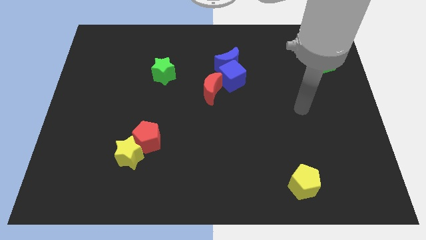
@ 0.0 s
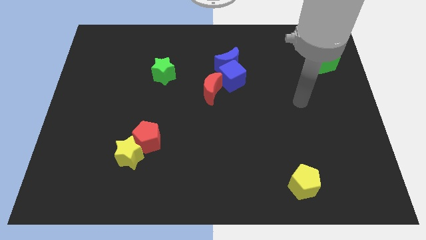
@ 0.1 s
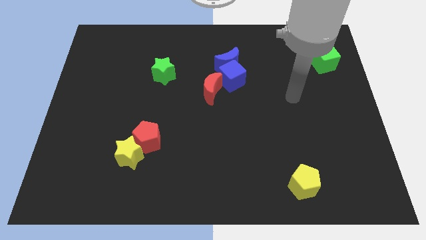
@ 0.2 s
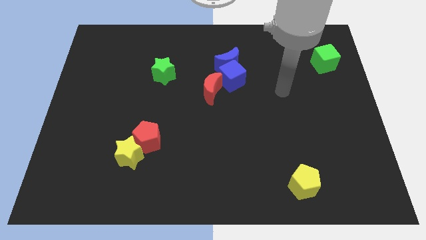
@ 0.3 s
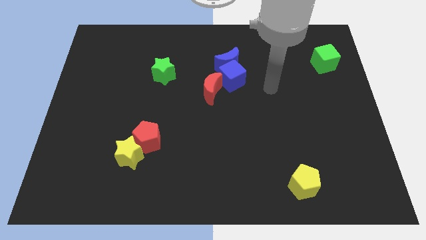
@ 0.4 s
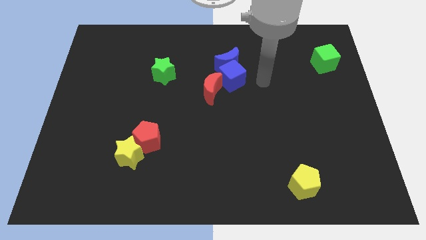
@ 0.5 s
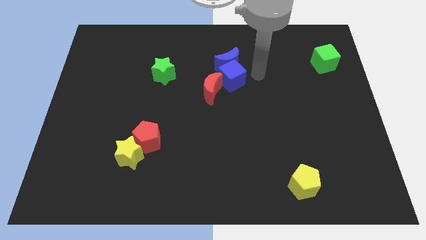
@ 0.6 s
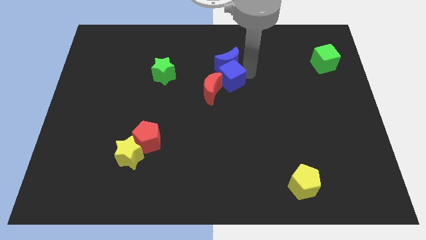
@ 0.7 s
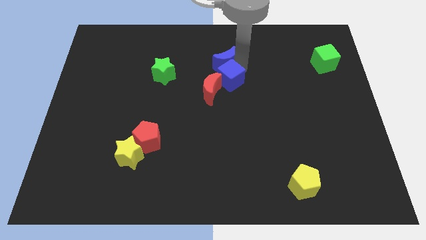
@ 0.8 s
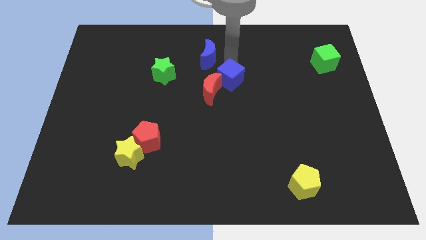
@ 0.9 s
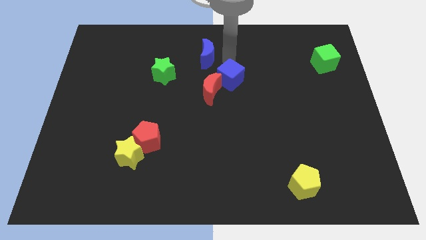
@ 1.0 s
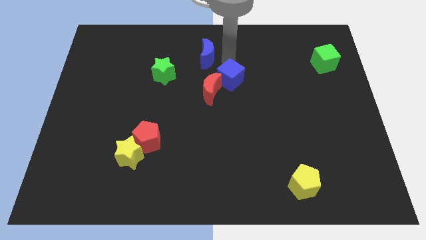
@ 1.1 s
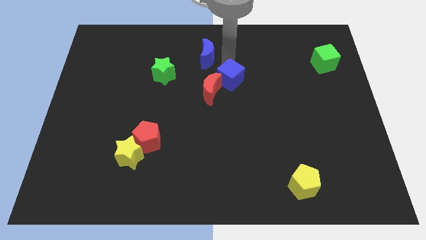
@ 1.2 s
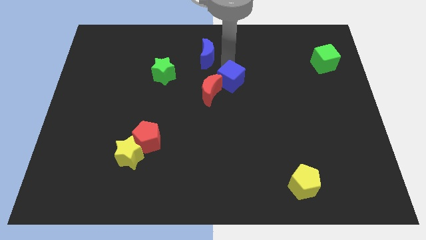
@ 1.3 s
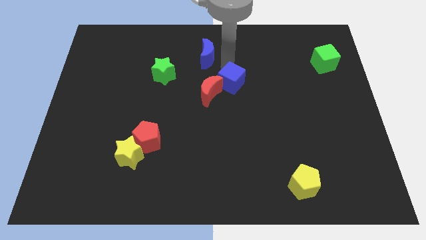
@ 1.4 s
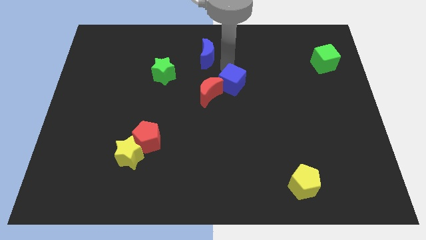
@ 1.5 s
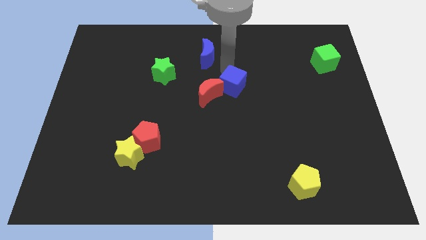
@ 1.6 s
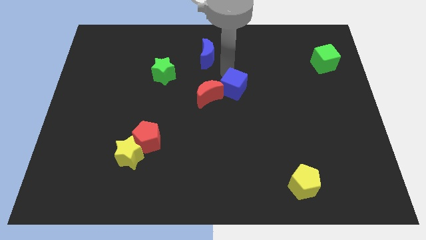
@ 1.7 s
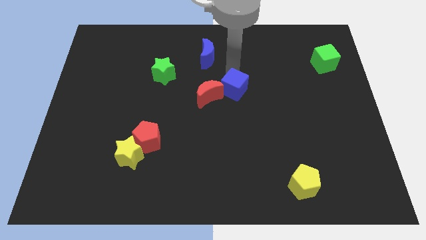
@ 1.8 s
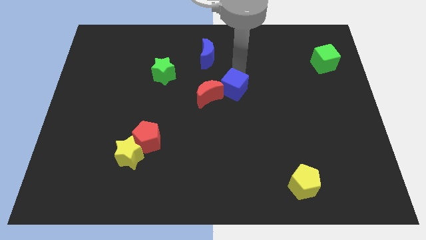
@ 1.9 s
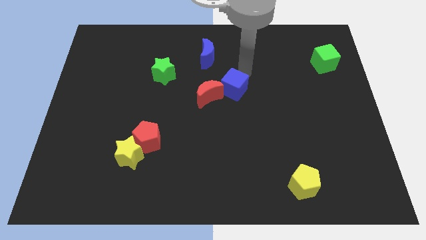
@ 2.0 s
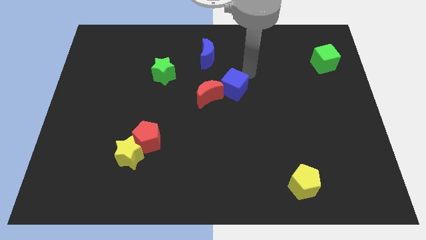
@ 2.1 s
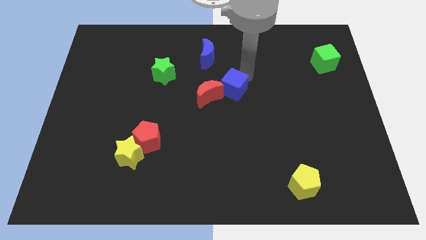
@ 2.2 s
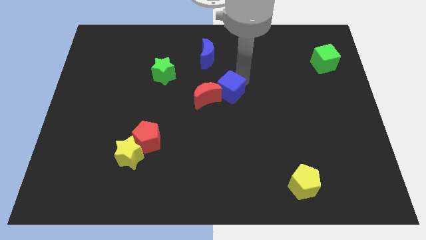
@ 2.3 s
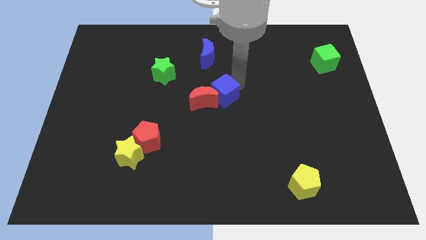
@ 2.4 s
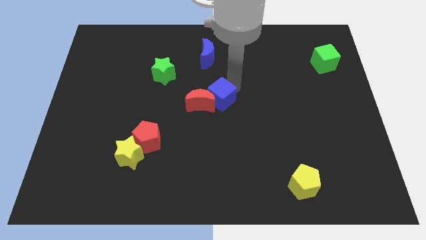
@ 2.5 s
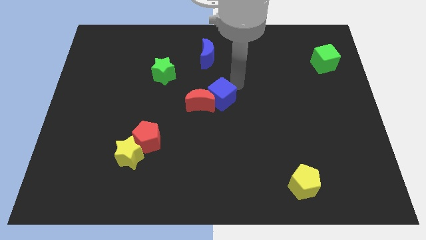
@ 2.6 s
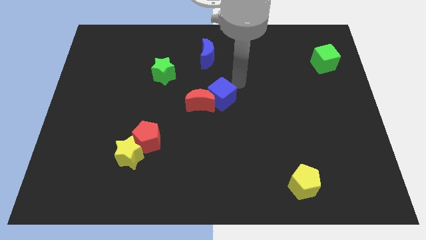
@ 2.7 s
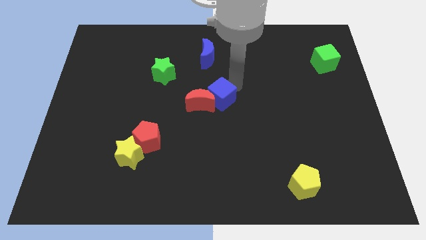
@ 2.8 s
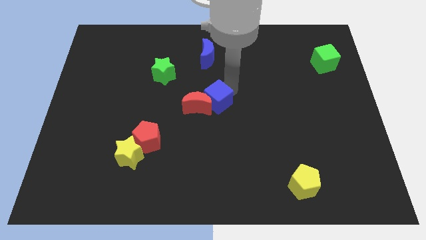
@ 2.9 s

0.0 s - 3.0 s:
slide the blue cube a little down and then to the left

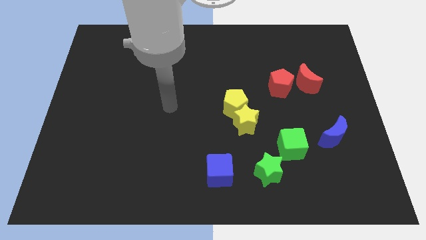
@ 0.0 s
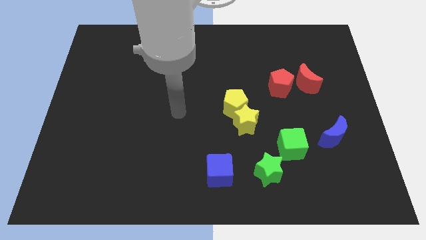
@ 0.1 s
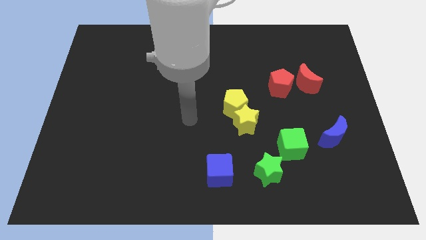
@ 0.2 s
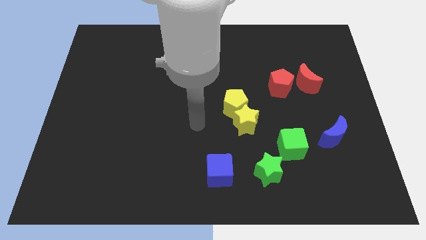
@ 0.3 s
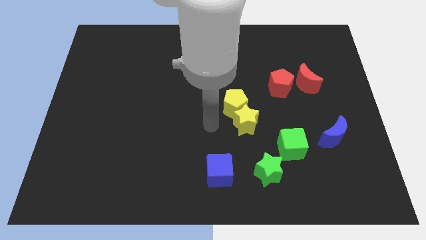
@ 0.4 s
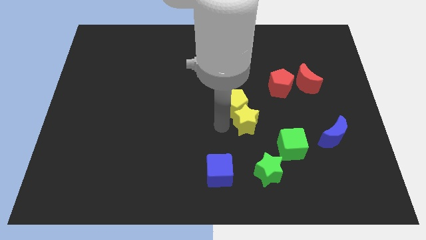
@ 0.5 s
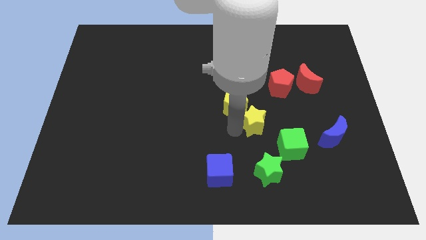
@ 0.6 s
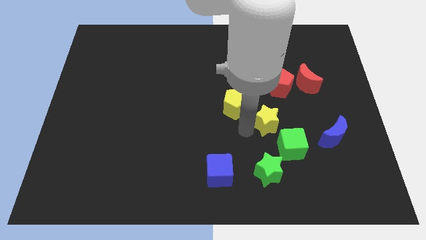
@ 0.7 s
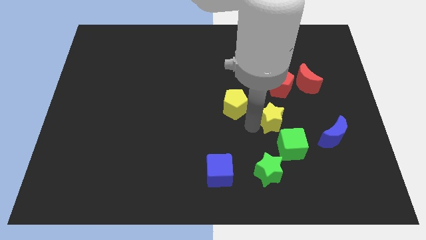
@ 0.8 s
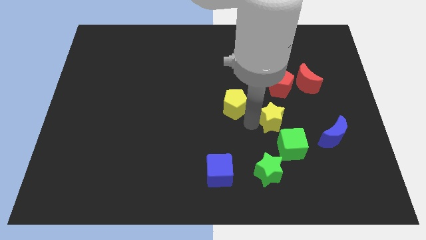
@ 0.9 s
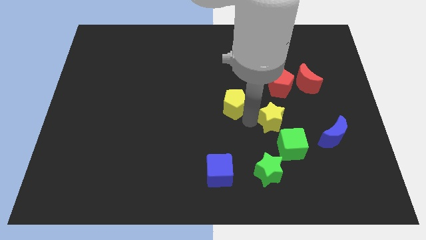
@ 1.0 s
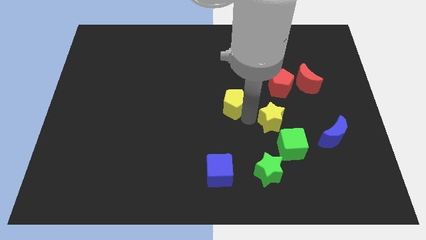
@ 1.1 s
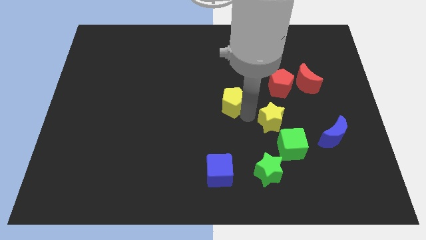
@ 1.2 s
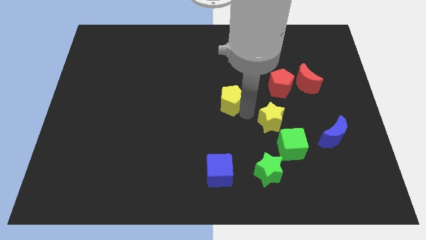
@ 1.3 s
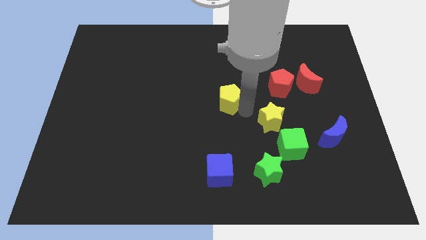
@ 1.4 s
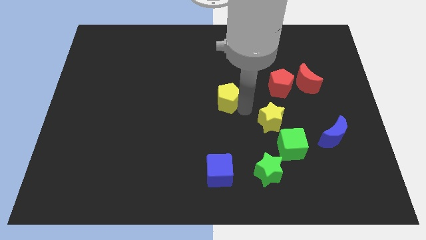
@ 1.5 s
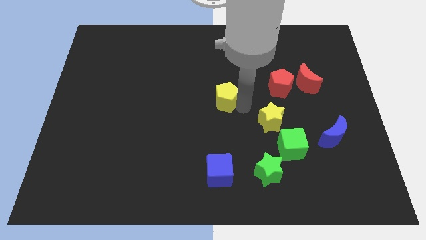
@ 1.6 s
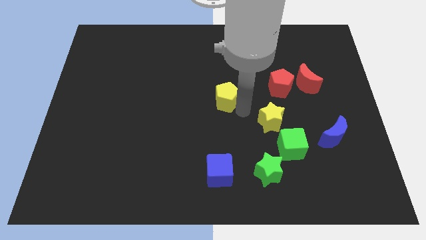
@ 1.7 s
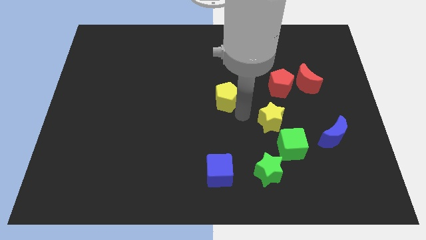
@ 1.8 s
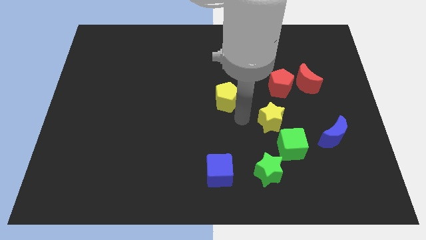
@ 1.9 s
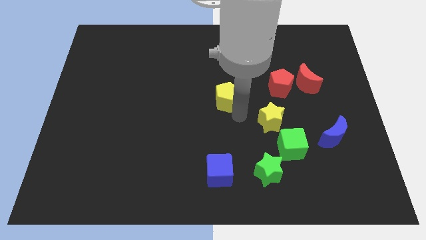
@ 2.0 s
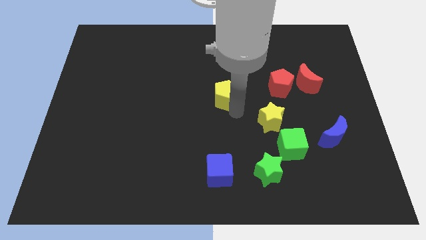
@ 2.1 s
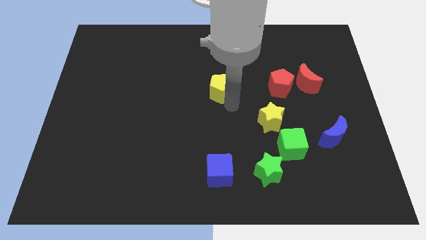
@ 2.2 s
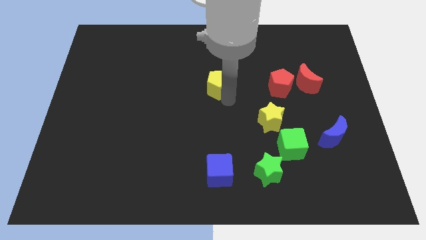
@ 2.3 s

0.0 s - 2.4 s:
slide the yellow pentagon up and then left a little bit

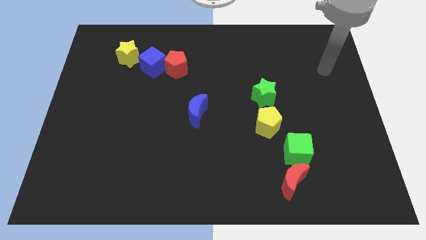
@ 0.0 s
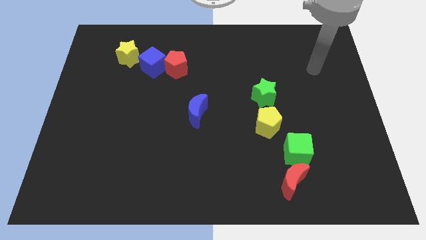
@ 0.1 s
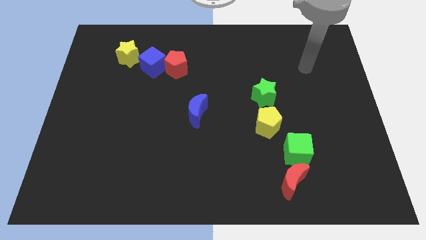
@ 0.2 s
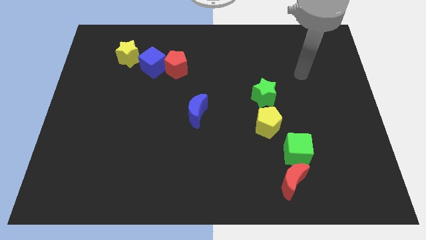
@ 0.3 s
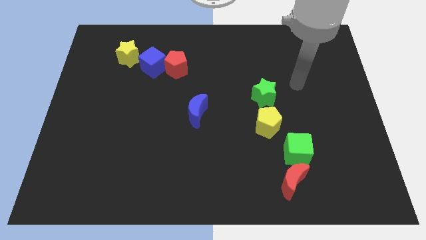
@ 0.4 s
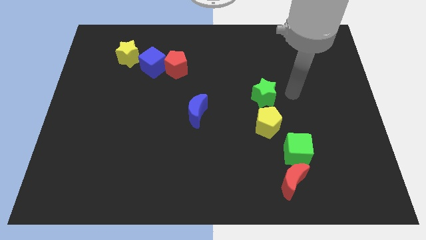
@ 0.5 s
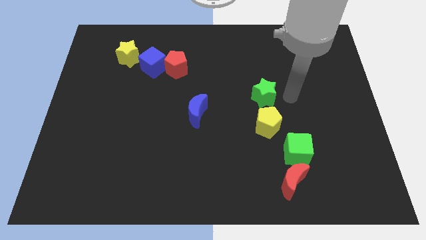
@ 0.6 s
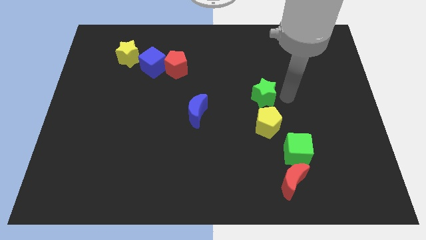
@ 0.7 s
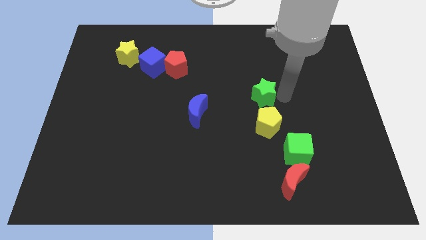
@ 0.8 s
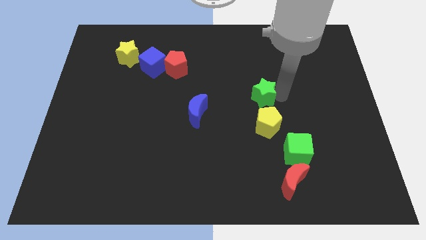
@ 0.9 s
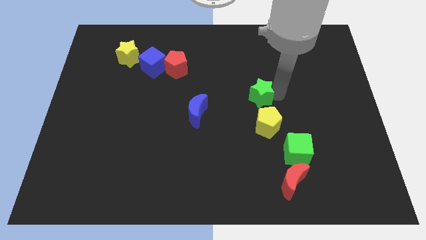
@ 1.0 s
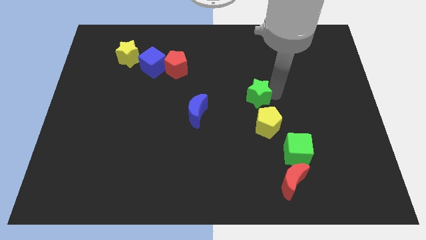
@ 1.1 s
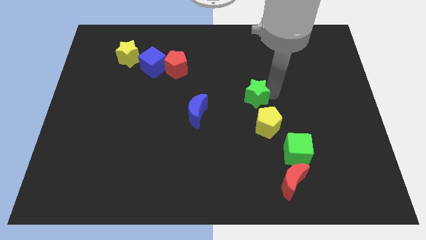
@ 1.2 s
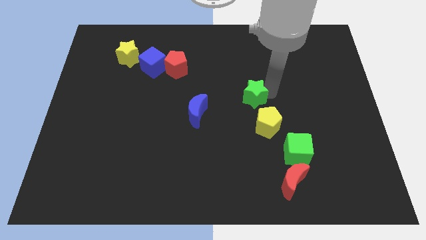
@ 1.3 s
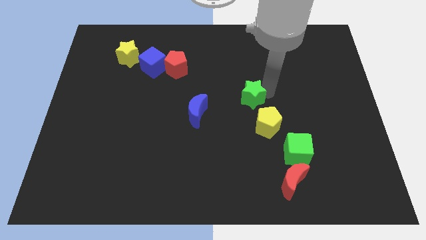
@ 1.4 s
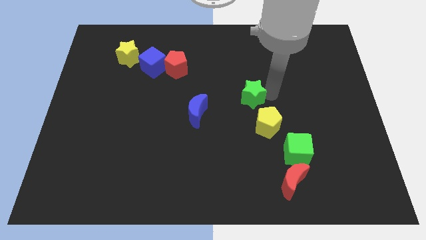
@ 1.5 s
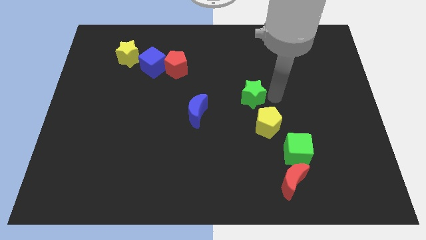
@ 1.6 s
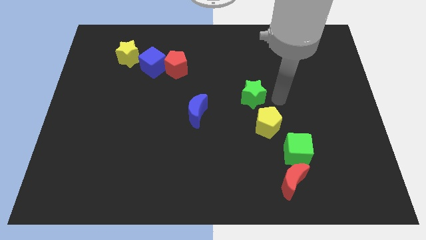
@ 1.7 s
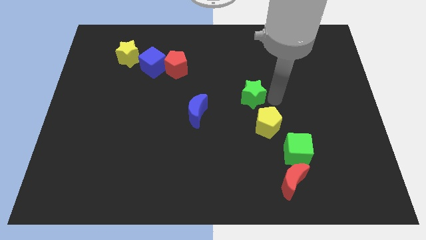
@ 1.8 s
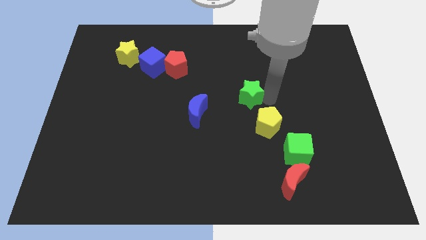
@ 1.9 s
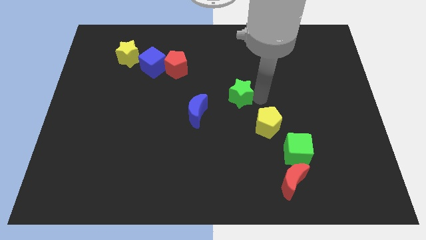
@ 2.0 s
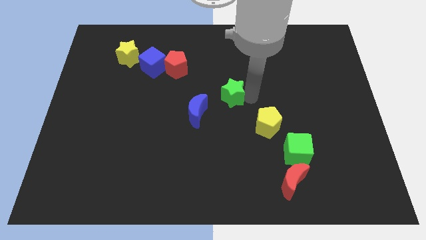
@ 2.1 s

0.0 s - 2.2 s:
slightly slide the green star to the left

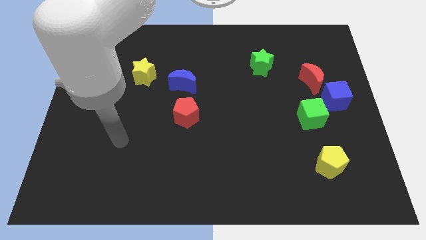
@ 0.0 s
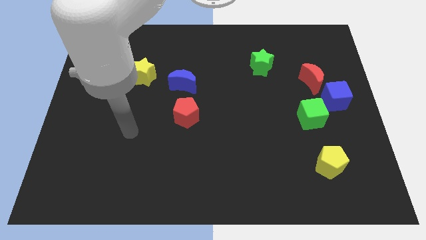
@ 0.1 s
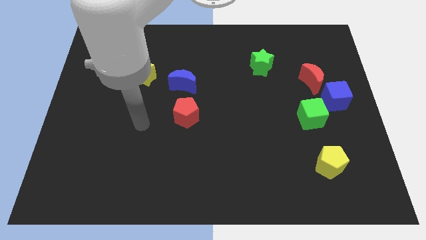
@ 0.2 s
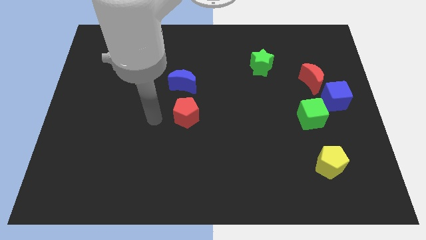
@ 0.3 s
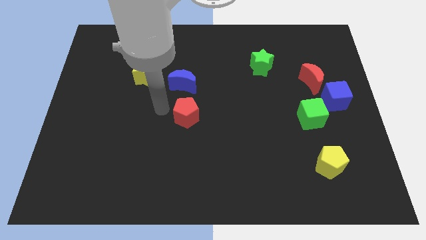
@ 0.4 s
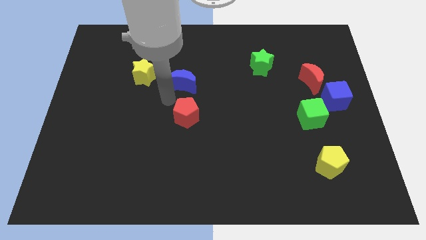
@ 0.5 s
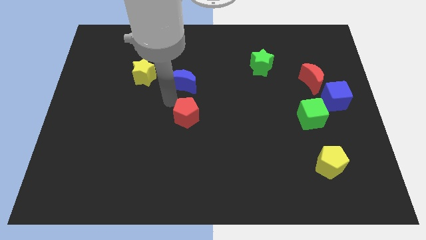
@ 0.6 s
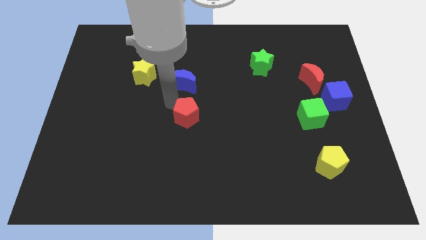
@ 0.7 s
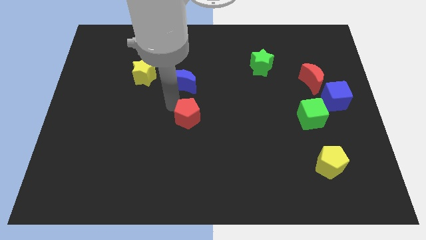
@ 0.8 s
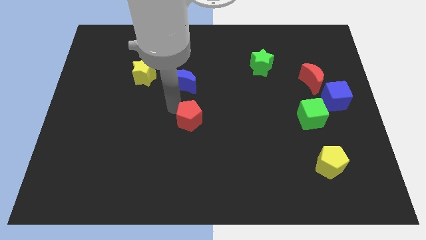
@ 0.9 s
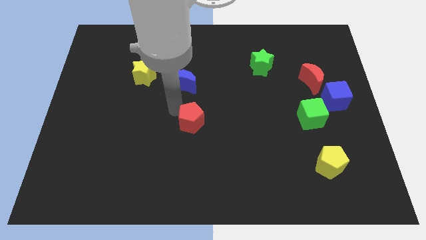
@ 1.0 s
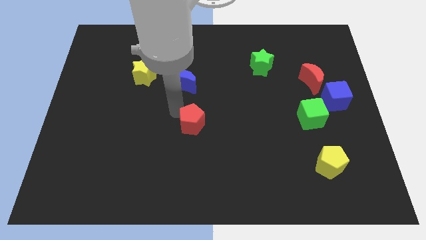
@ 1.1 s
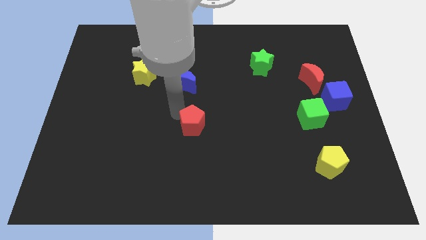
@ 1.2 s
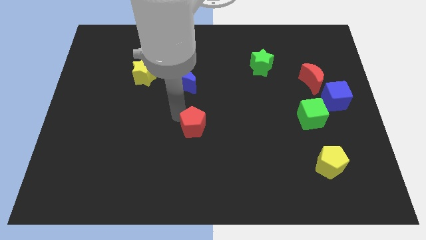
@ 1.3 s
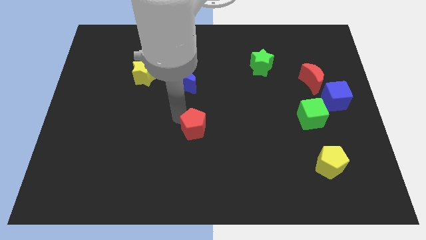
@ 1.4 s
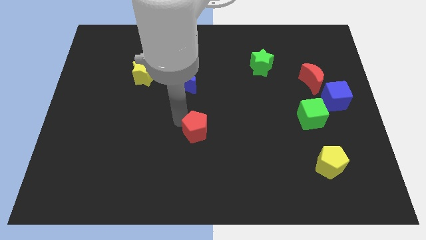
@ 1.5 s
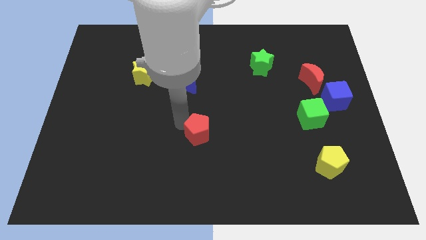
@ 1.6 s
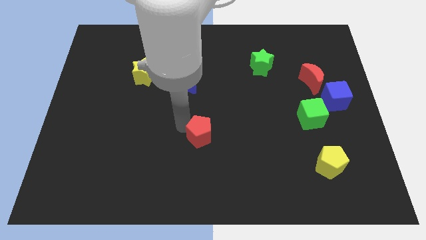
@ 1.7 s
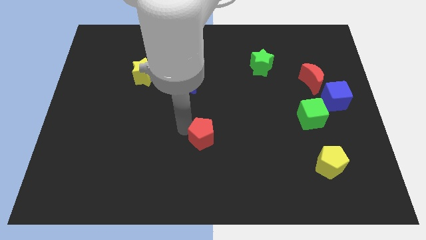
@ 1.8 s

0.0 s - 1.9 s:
move the red pentagon down and right a little bit
